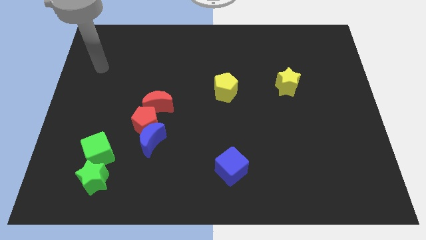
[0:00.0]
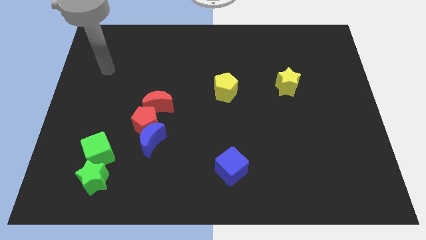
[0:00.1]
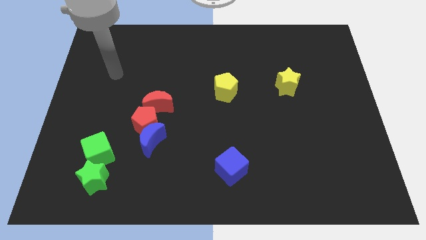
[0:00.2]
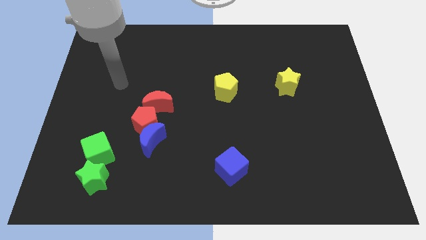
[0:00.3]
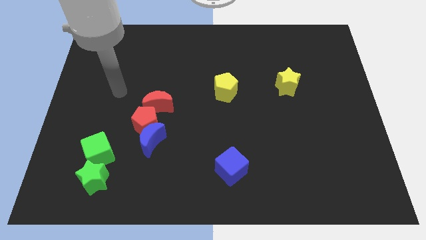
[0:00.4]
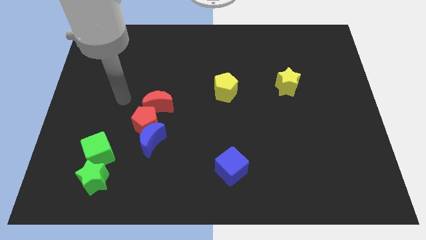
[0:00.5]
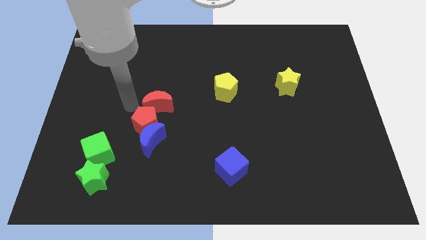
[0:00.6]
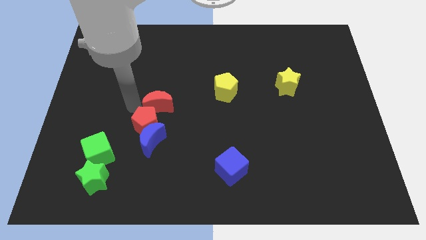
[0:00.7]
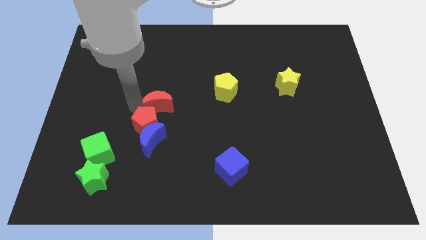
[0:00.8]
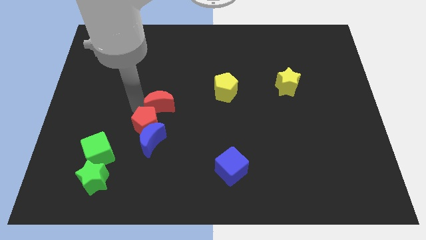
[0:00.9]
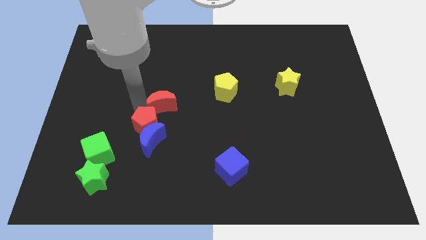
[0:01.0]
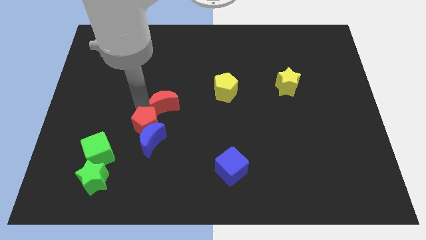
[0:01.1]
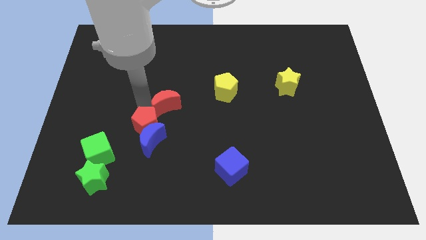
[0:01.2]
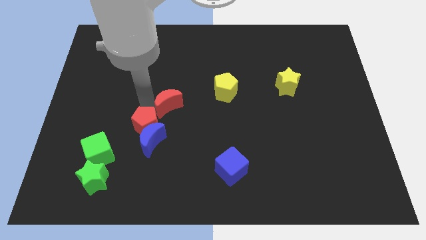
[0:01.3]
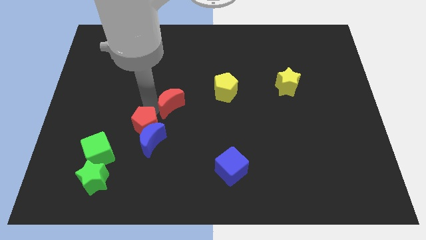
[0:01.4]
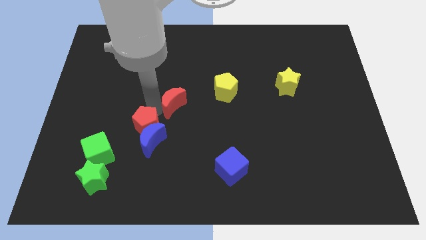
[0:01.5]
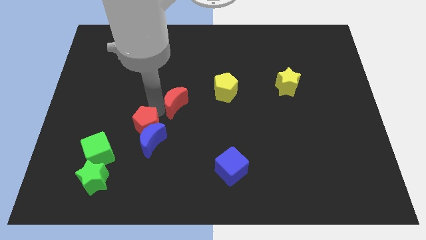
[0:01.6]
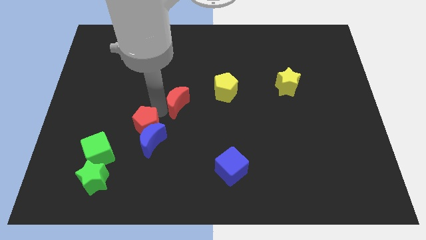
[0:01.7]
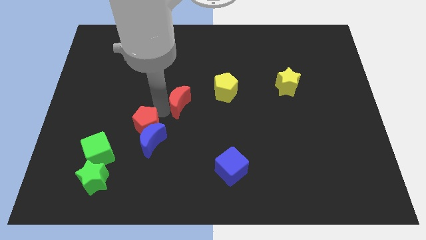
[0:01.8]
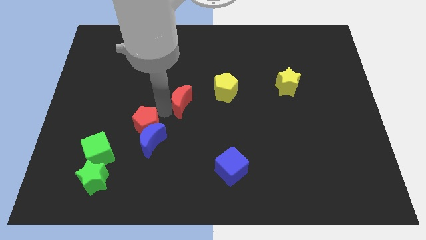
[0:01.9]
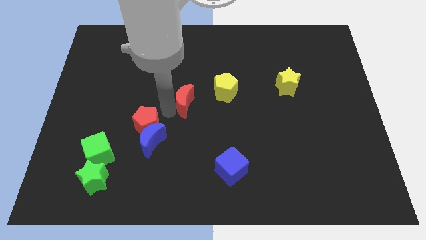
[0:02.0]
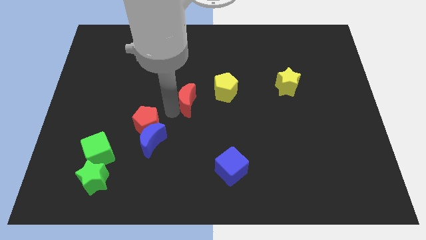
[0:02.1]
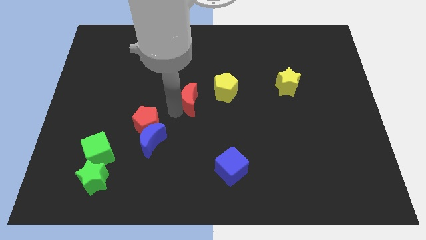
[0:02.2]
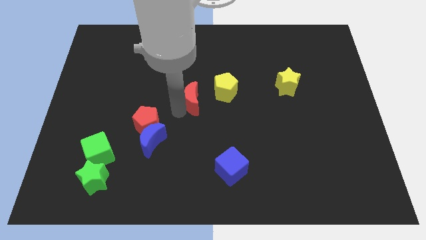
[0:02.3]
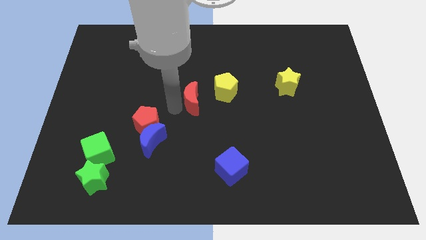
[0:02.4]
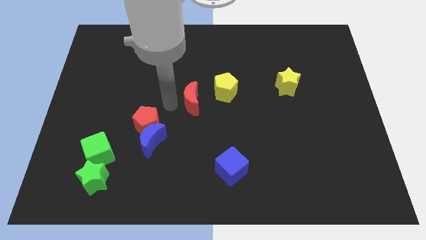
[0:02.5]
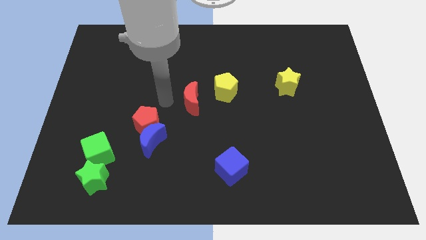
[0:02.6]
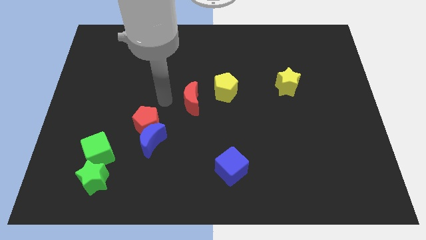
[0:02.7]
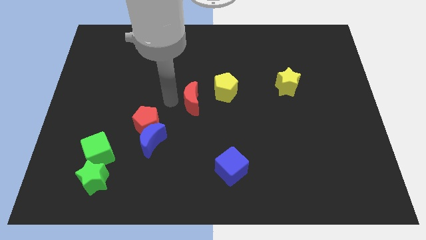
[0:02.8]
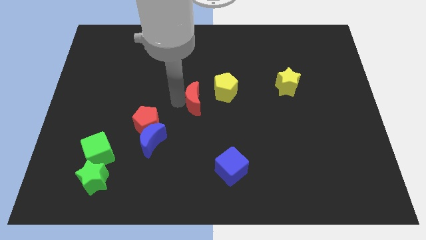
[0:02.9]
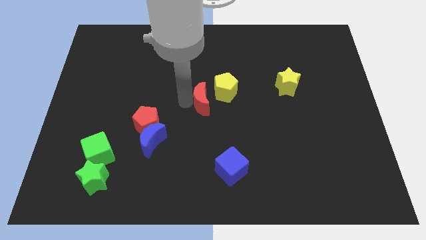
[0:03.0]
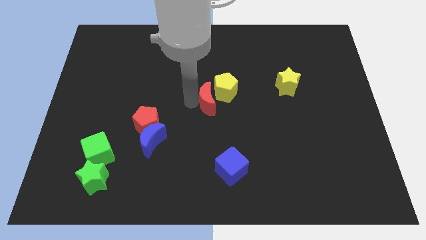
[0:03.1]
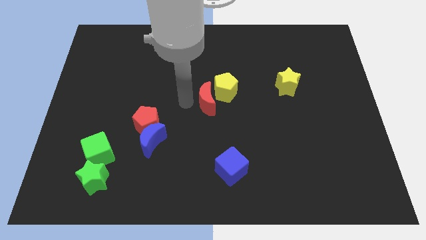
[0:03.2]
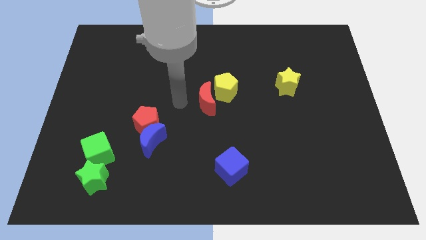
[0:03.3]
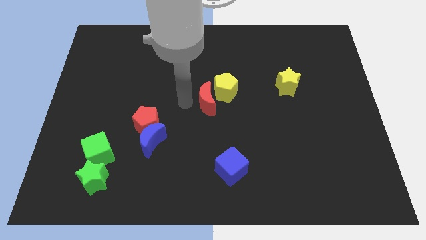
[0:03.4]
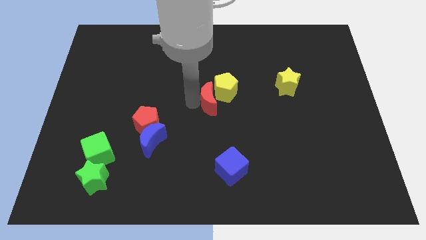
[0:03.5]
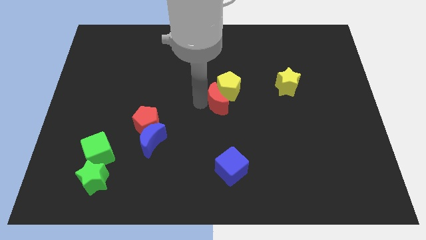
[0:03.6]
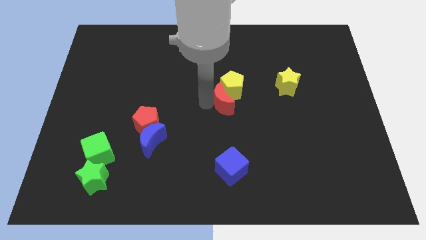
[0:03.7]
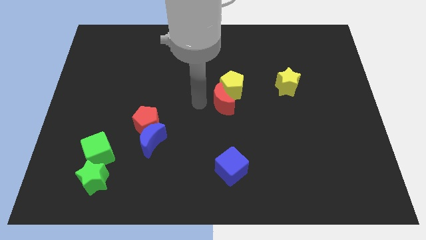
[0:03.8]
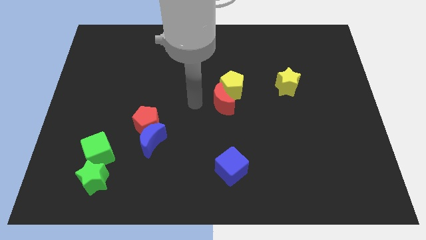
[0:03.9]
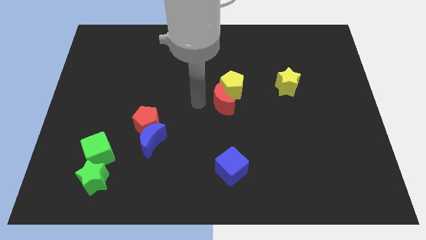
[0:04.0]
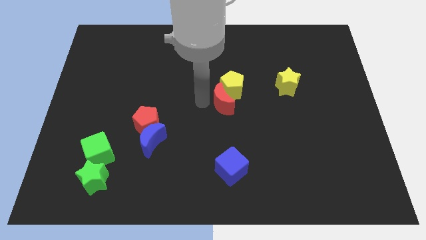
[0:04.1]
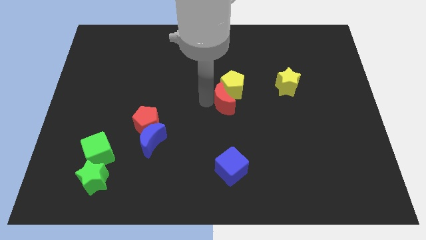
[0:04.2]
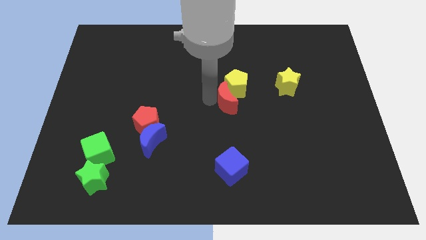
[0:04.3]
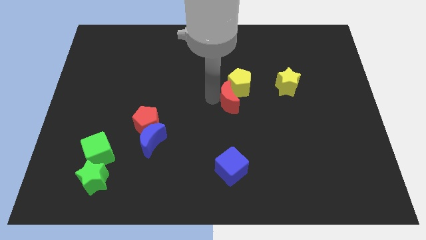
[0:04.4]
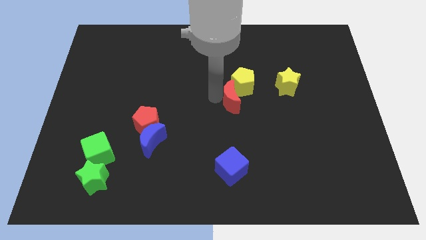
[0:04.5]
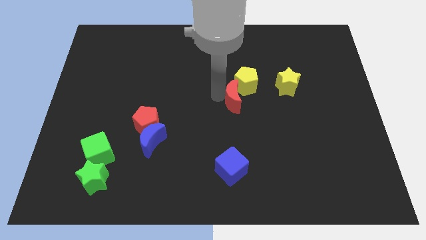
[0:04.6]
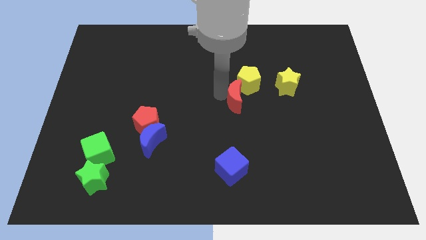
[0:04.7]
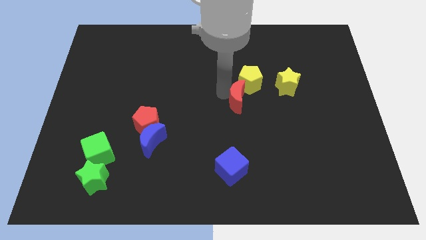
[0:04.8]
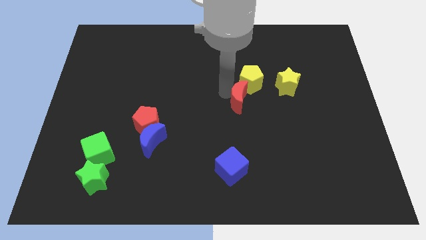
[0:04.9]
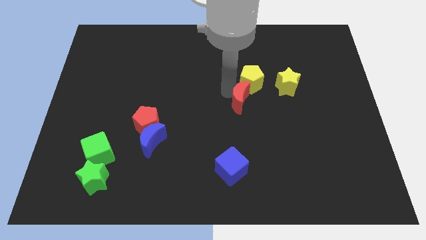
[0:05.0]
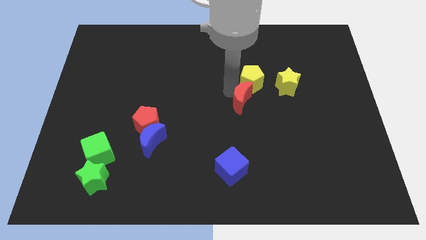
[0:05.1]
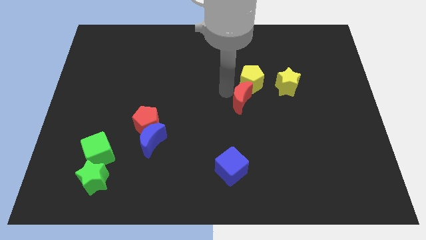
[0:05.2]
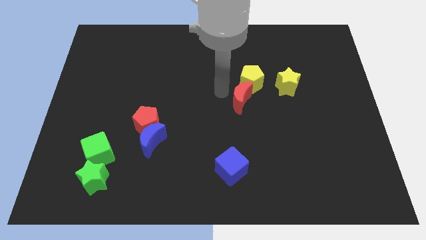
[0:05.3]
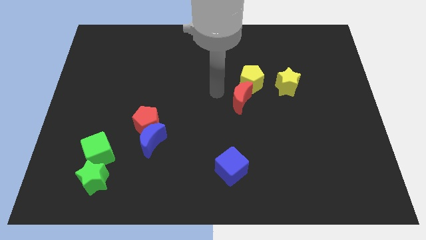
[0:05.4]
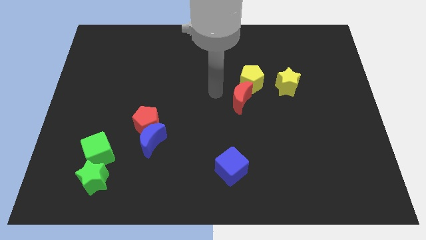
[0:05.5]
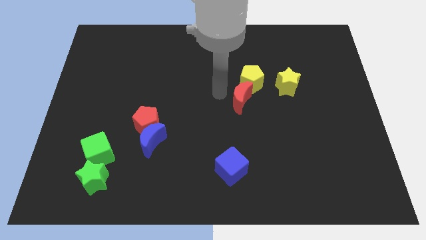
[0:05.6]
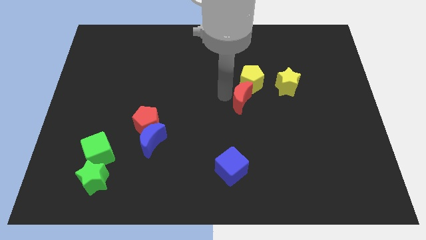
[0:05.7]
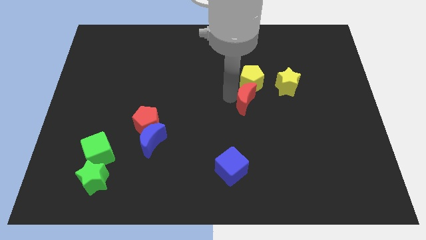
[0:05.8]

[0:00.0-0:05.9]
slide the red moon to the right

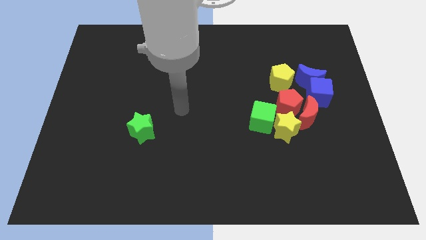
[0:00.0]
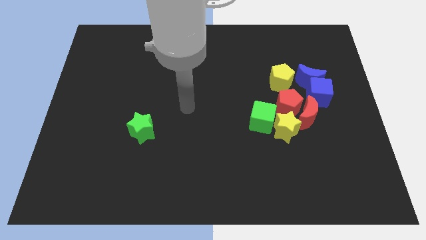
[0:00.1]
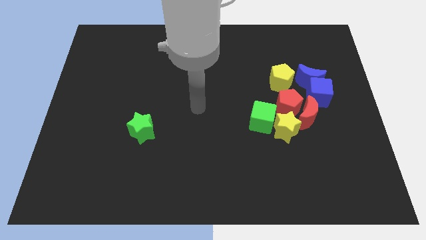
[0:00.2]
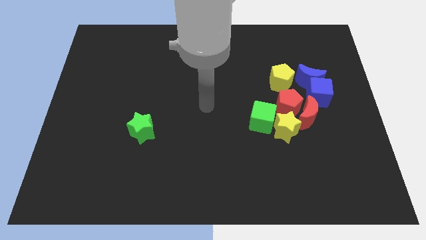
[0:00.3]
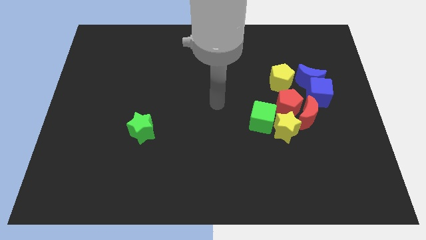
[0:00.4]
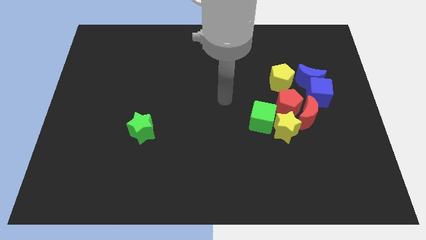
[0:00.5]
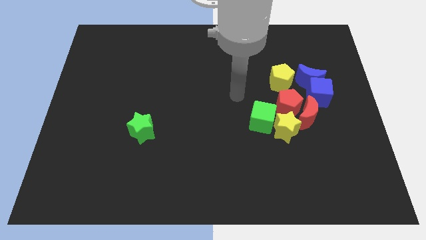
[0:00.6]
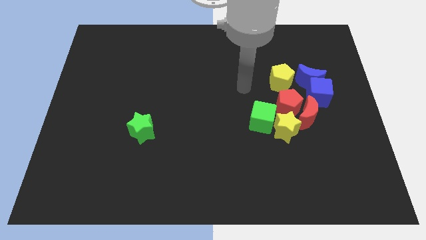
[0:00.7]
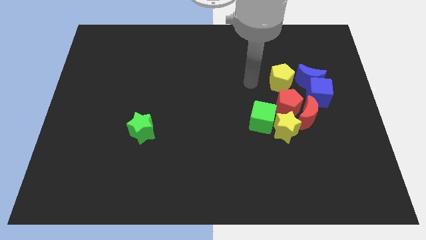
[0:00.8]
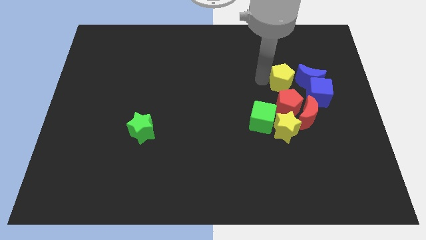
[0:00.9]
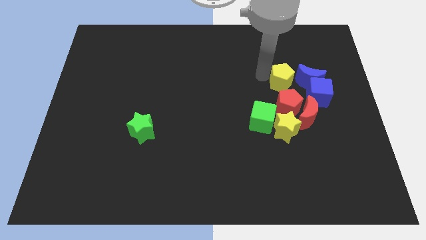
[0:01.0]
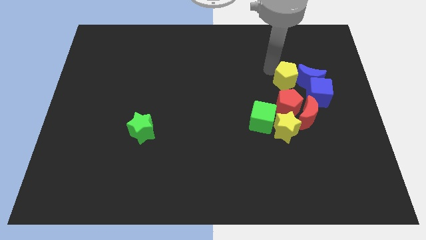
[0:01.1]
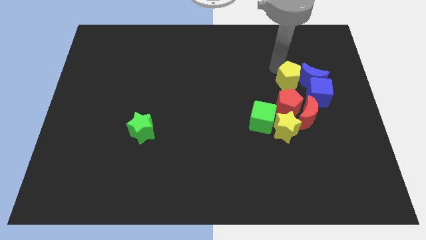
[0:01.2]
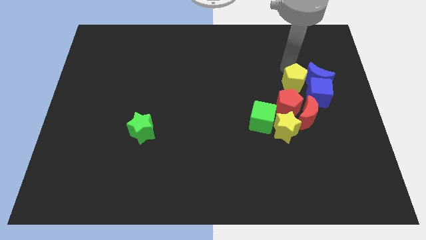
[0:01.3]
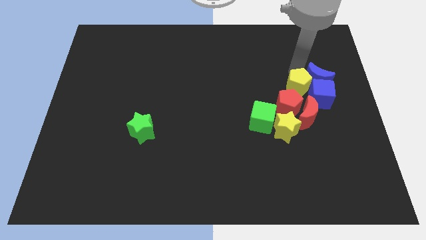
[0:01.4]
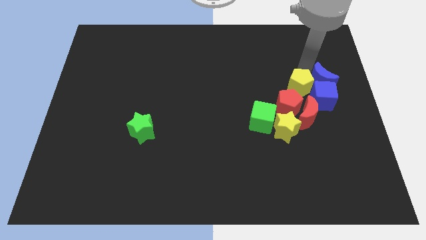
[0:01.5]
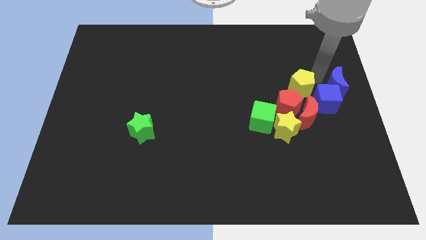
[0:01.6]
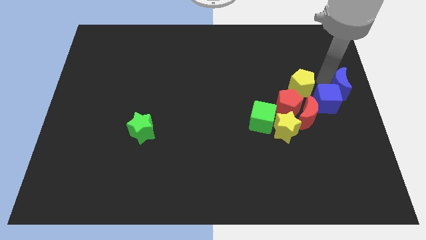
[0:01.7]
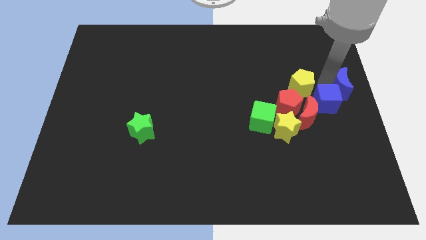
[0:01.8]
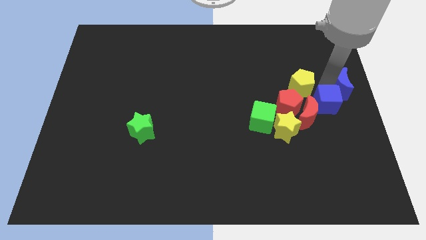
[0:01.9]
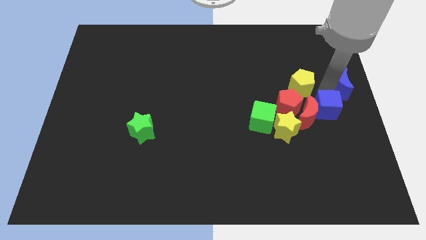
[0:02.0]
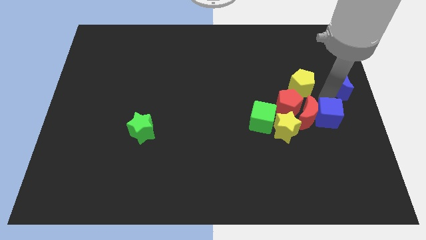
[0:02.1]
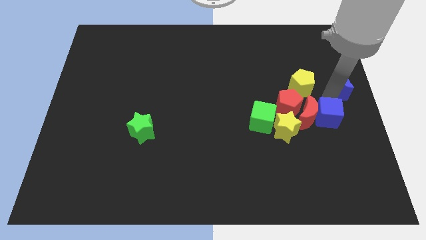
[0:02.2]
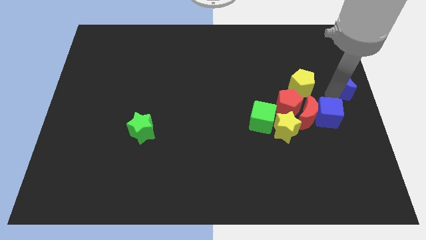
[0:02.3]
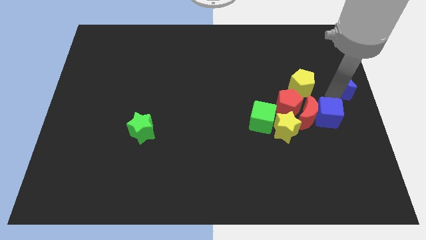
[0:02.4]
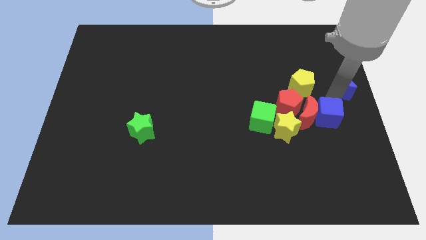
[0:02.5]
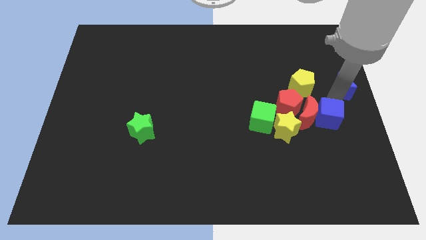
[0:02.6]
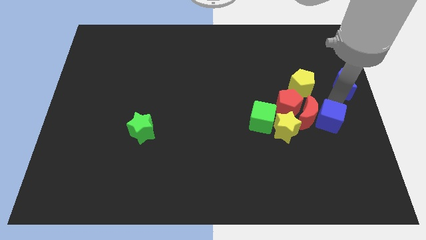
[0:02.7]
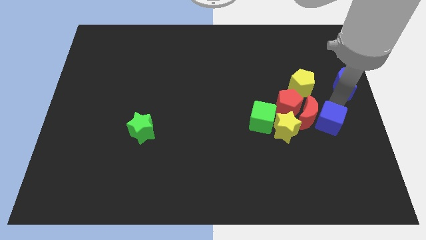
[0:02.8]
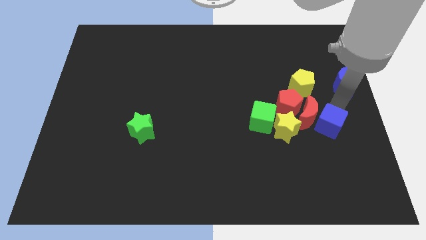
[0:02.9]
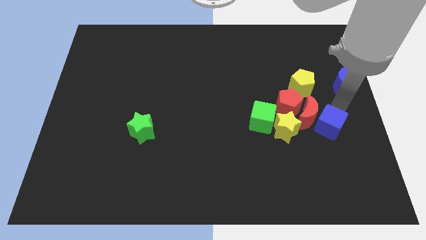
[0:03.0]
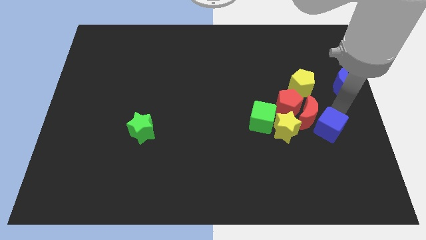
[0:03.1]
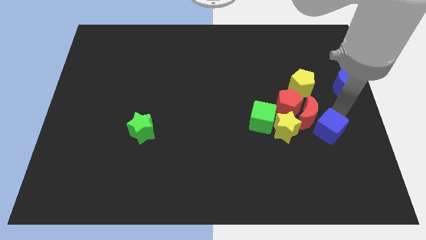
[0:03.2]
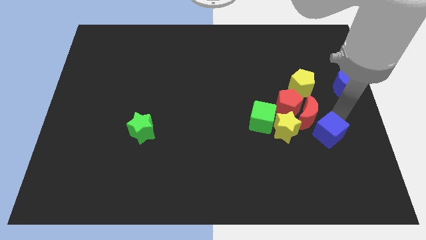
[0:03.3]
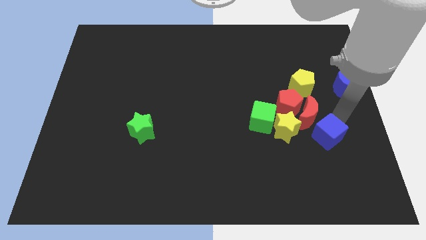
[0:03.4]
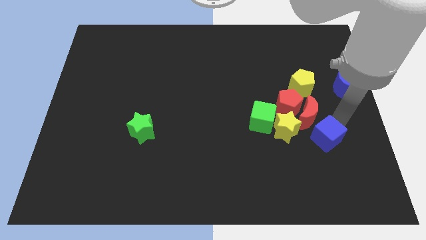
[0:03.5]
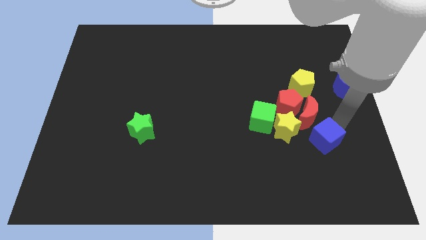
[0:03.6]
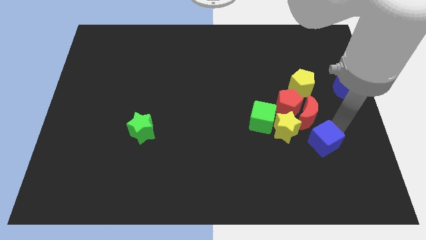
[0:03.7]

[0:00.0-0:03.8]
move the blue cube diagonally downwards and to the left a little
